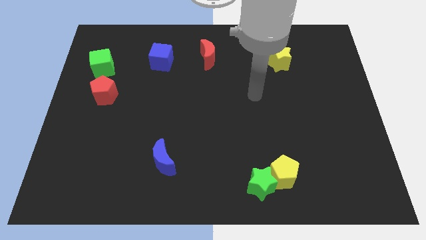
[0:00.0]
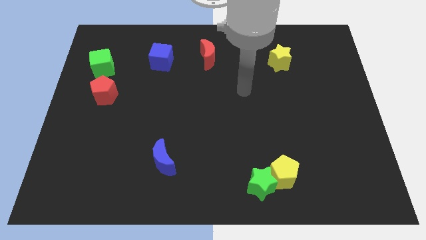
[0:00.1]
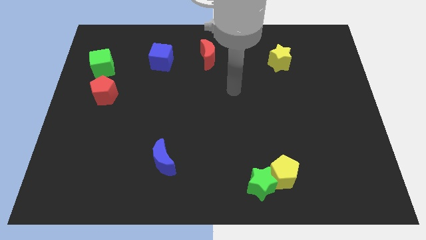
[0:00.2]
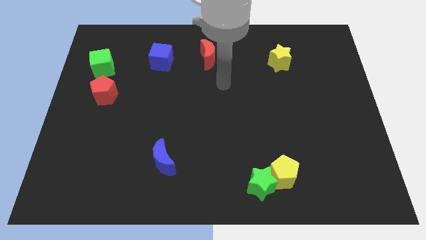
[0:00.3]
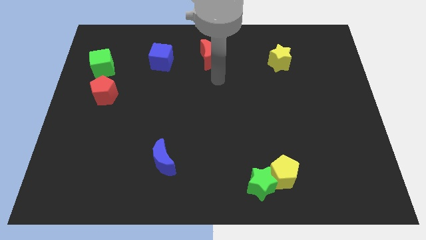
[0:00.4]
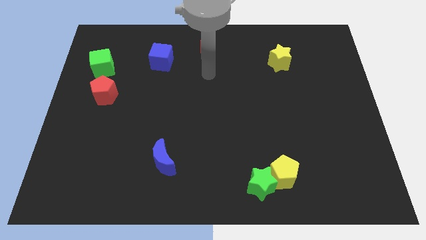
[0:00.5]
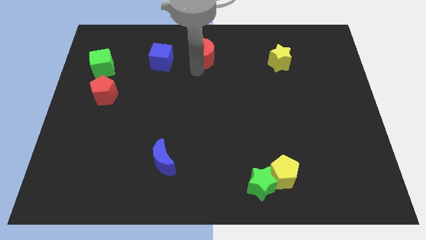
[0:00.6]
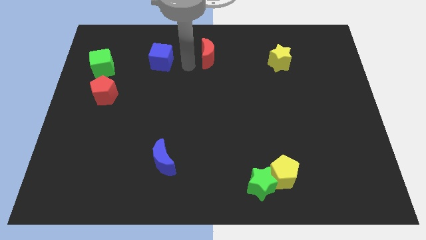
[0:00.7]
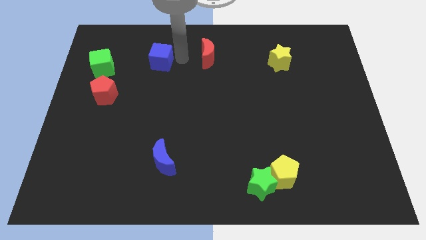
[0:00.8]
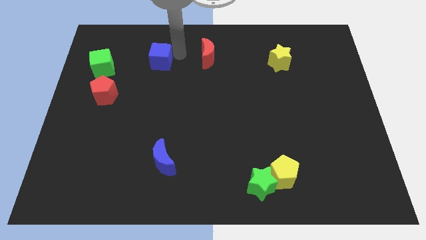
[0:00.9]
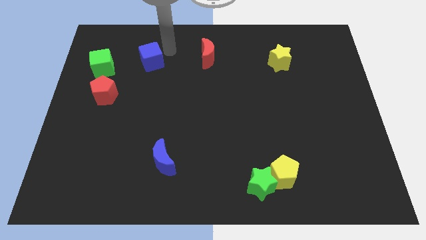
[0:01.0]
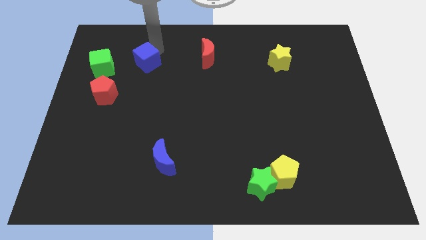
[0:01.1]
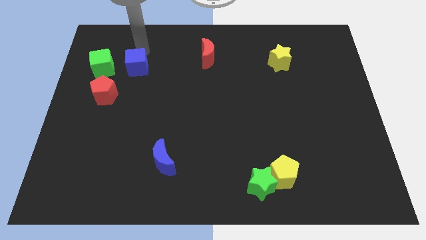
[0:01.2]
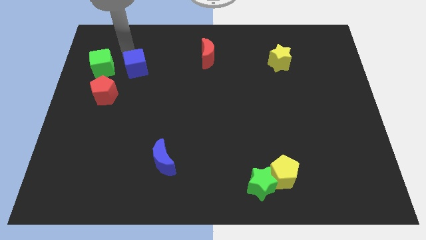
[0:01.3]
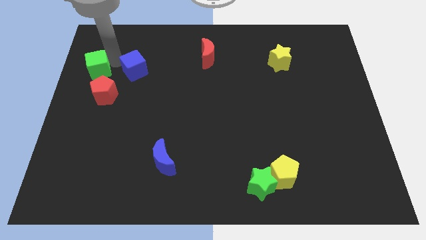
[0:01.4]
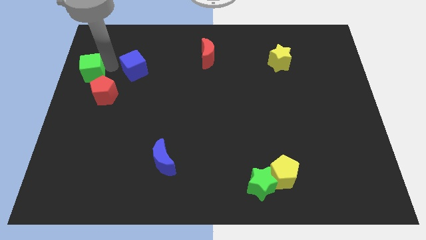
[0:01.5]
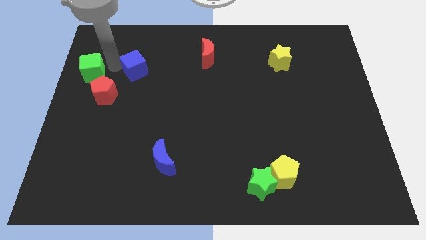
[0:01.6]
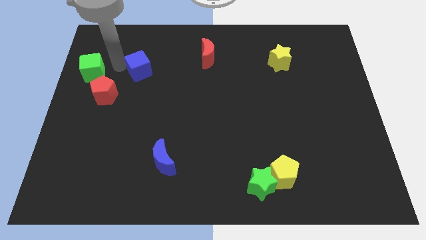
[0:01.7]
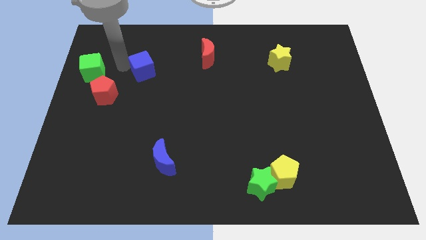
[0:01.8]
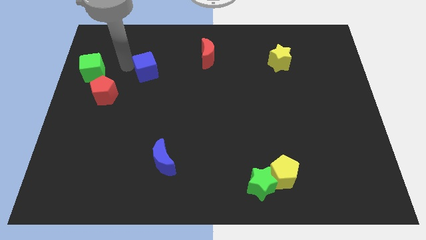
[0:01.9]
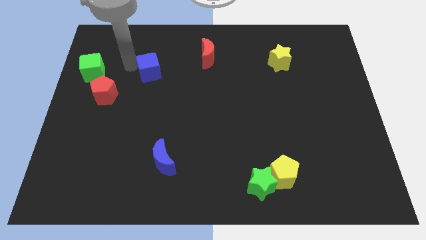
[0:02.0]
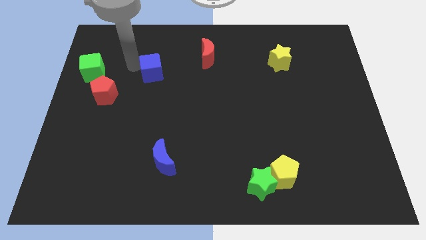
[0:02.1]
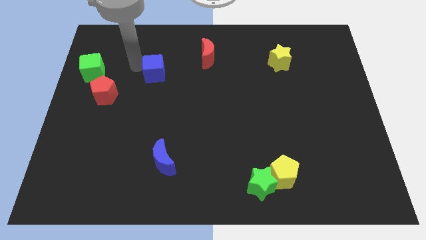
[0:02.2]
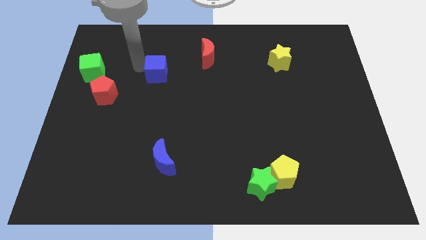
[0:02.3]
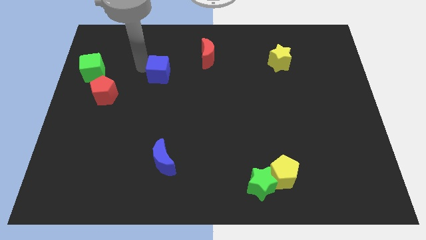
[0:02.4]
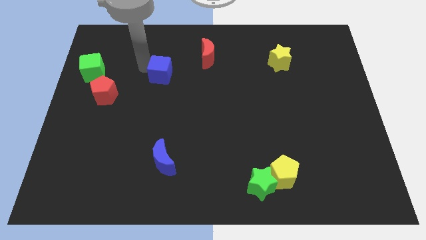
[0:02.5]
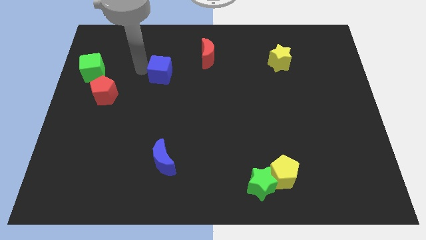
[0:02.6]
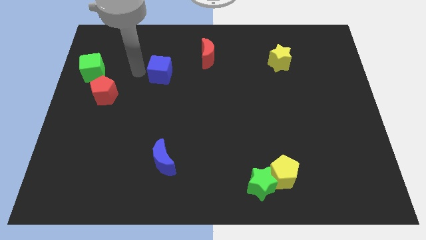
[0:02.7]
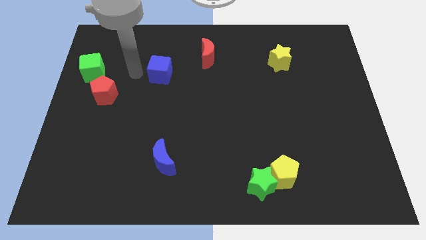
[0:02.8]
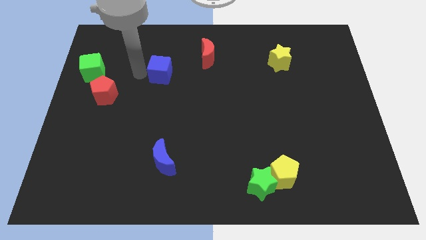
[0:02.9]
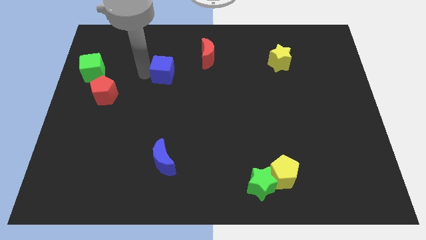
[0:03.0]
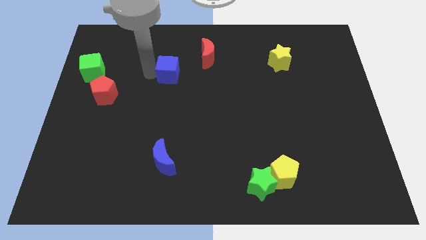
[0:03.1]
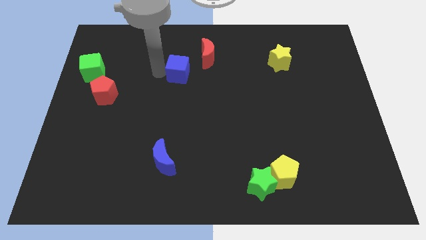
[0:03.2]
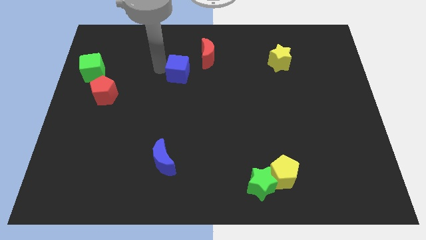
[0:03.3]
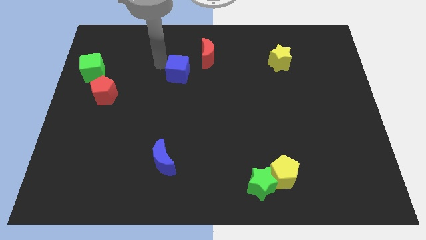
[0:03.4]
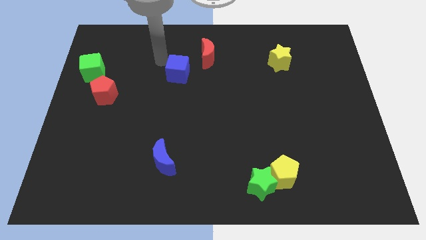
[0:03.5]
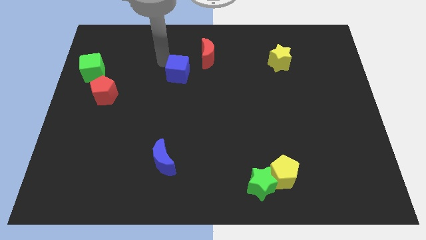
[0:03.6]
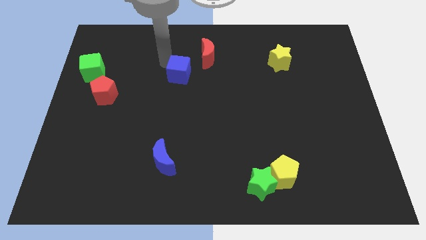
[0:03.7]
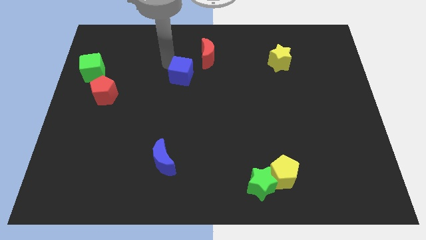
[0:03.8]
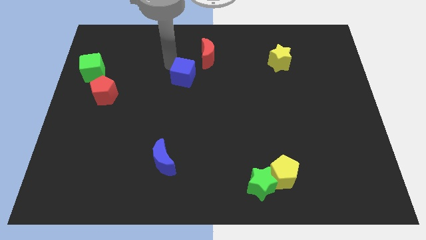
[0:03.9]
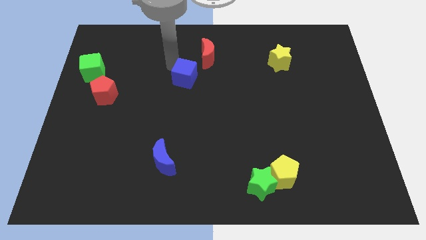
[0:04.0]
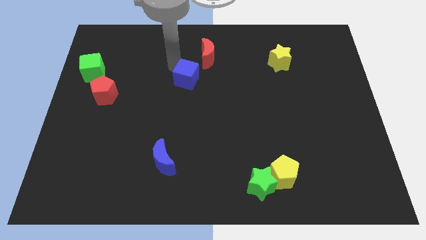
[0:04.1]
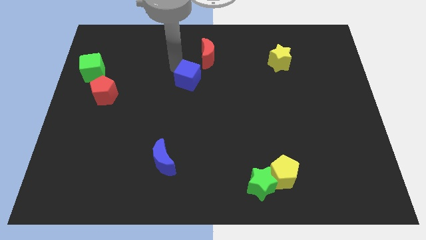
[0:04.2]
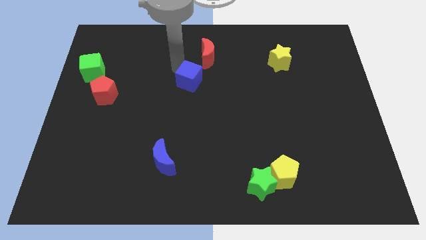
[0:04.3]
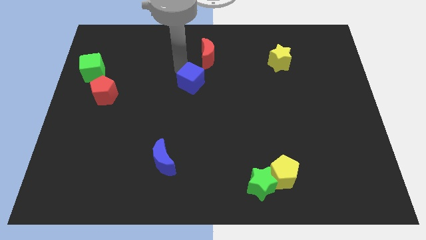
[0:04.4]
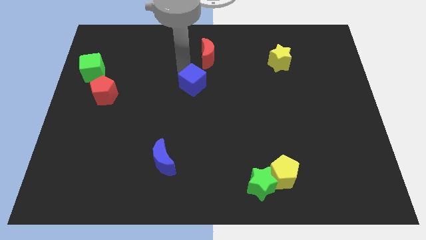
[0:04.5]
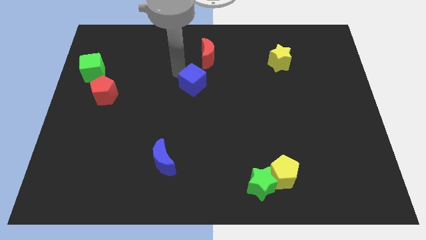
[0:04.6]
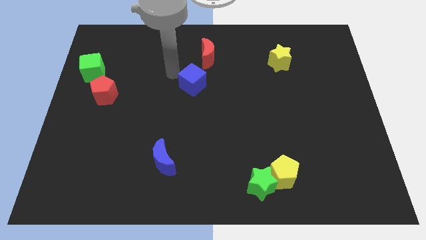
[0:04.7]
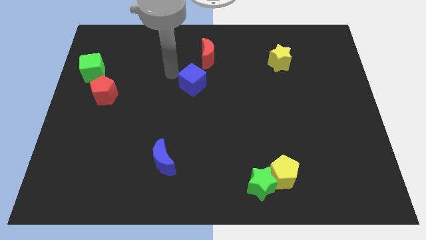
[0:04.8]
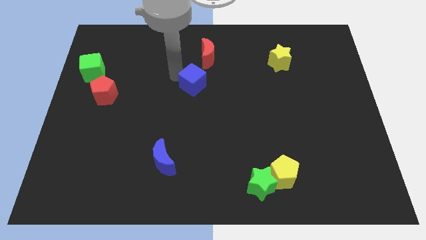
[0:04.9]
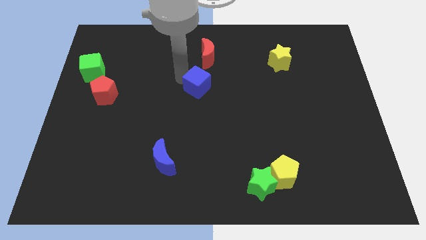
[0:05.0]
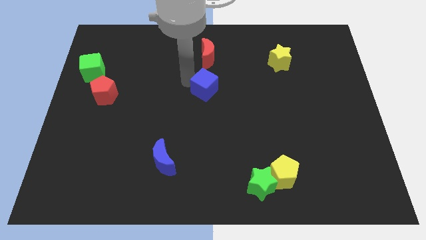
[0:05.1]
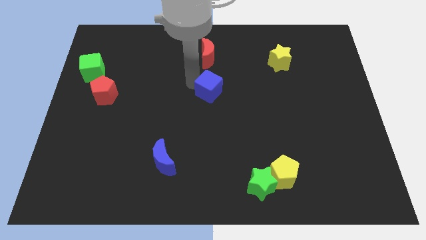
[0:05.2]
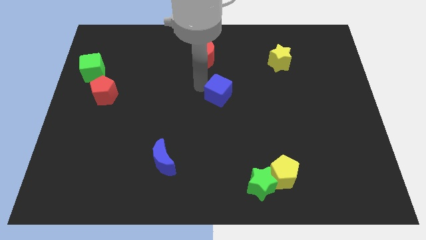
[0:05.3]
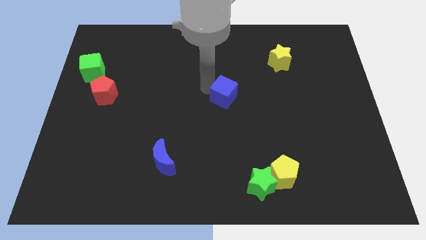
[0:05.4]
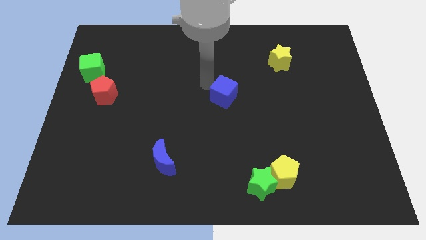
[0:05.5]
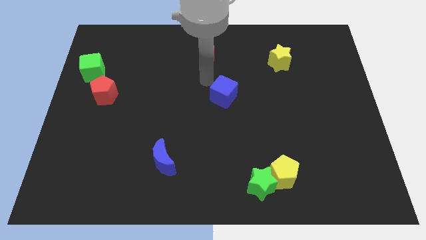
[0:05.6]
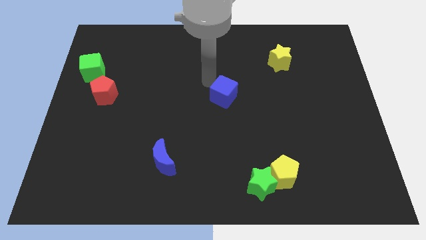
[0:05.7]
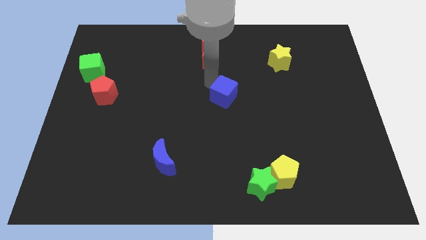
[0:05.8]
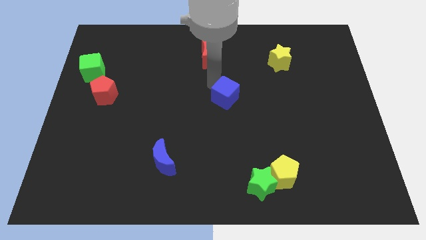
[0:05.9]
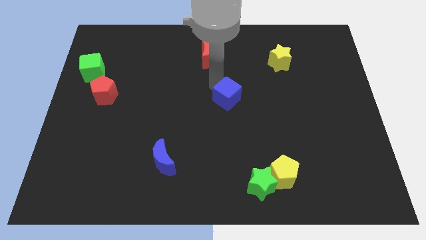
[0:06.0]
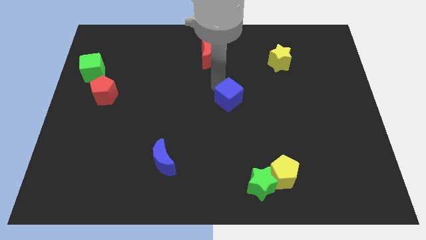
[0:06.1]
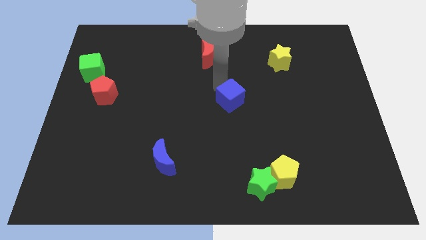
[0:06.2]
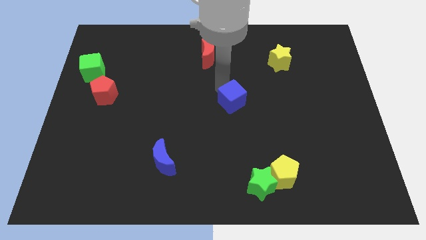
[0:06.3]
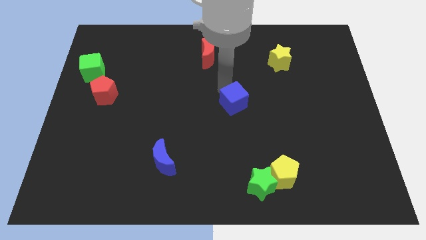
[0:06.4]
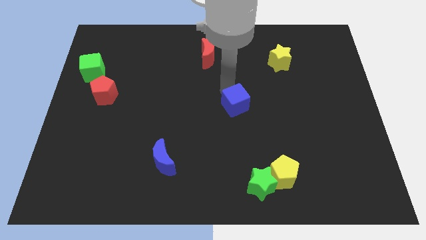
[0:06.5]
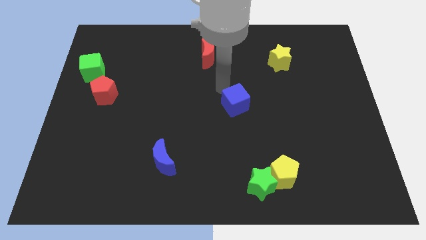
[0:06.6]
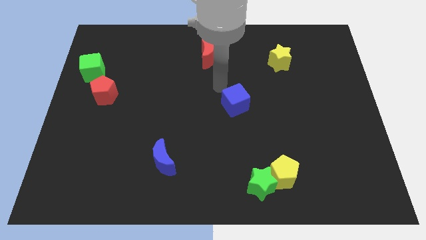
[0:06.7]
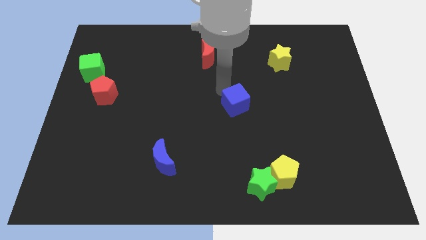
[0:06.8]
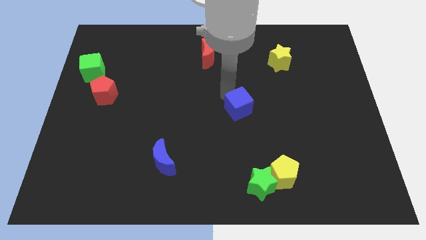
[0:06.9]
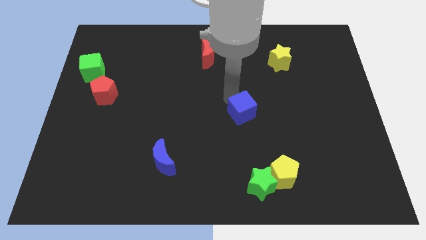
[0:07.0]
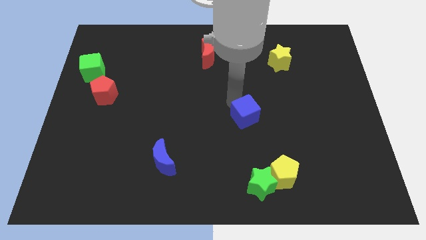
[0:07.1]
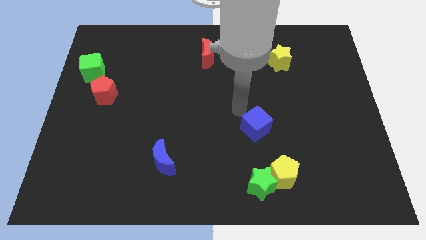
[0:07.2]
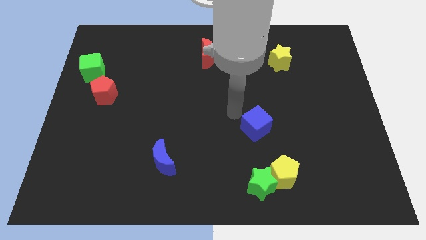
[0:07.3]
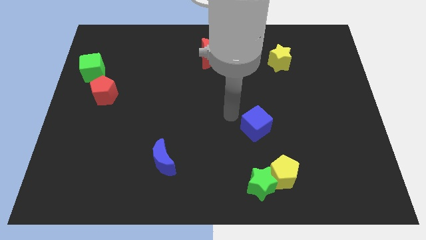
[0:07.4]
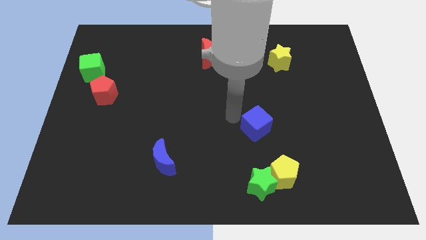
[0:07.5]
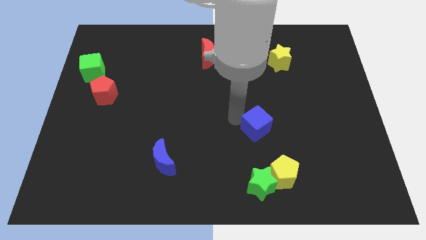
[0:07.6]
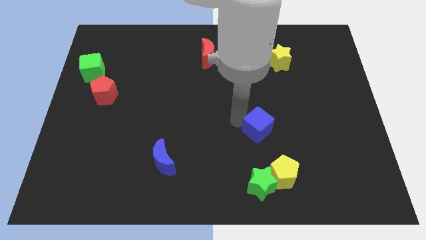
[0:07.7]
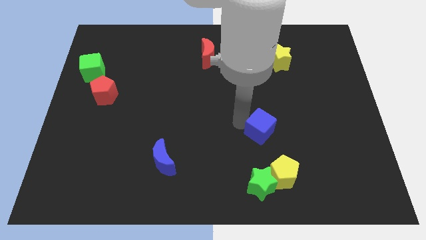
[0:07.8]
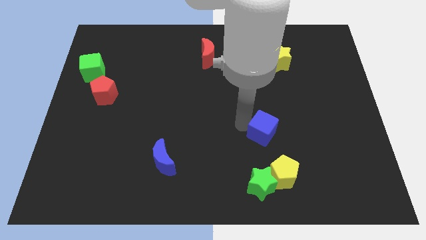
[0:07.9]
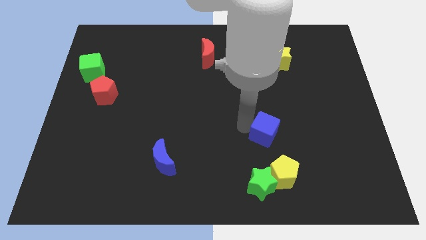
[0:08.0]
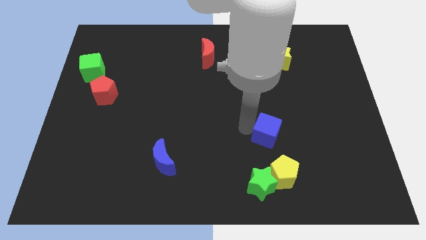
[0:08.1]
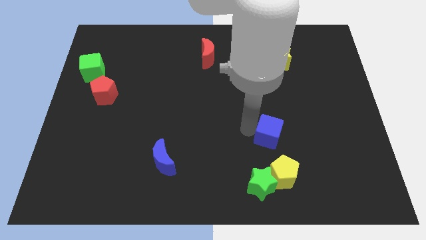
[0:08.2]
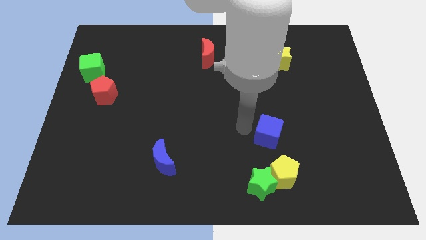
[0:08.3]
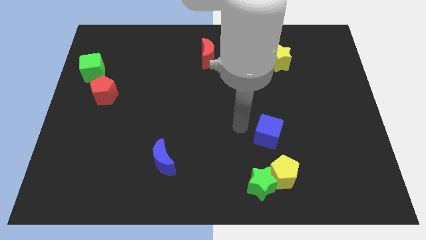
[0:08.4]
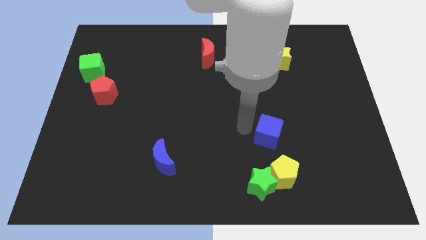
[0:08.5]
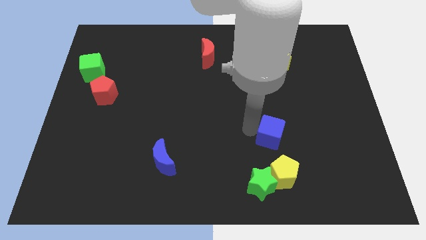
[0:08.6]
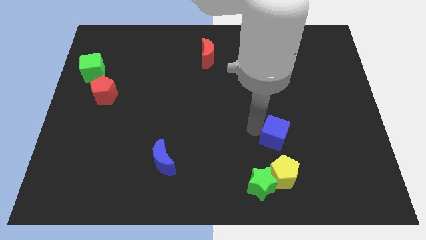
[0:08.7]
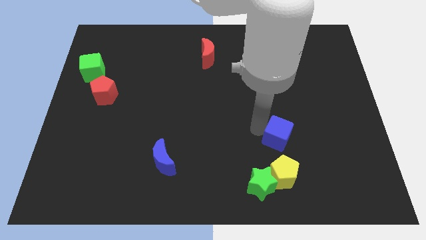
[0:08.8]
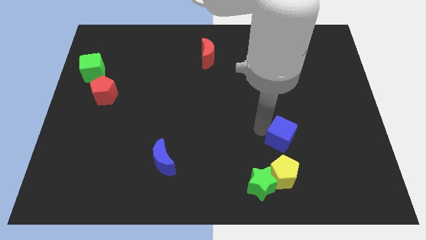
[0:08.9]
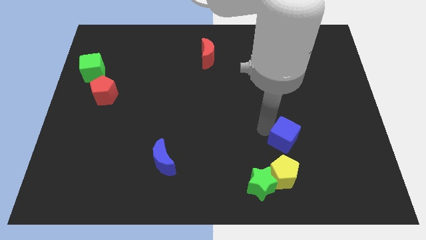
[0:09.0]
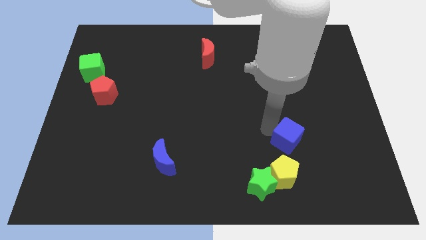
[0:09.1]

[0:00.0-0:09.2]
push the blue cube diagonally up and to the right of the yellow pentagon
